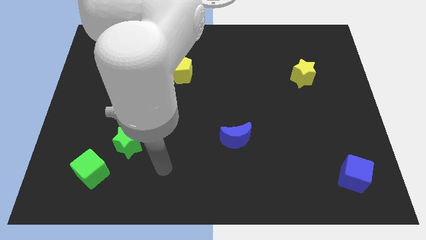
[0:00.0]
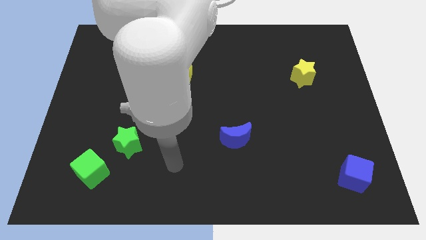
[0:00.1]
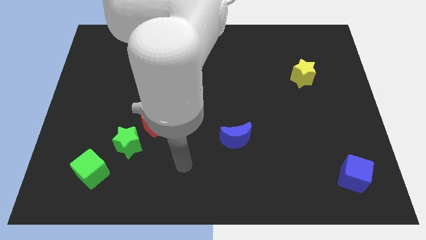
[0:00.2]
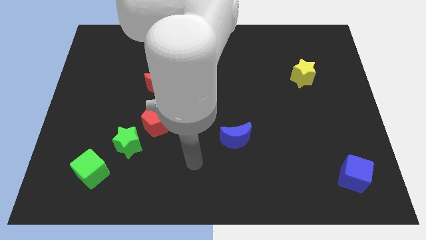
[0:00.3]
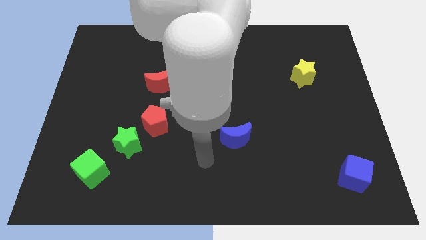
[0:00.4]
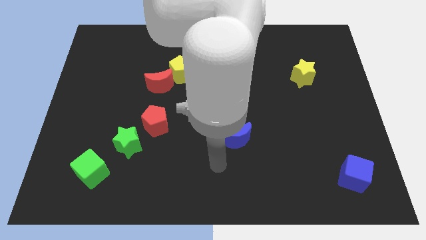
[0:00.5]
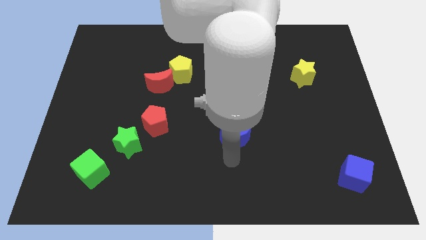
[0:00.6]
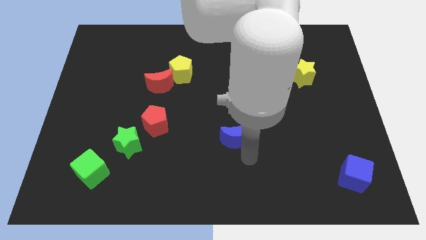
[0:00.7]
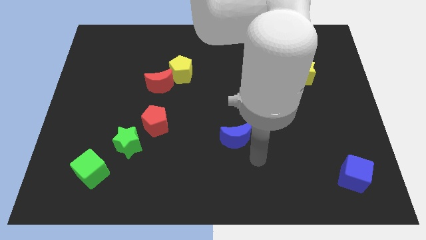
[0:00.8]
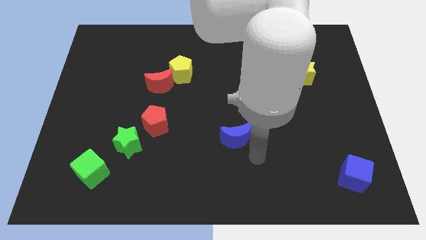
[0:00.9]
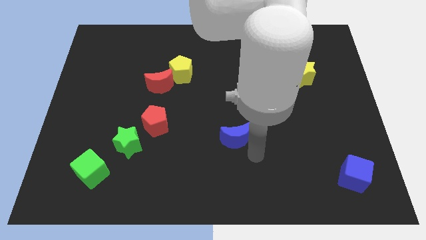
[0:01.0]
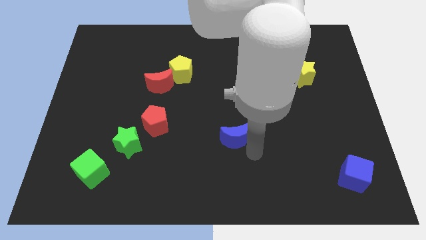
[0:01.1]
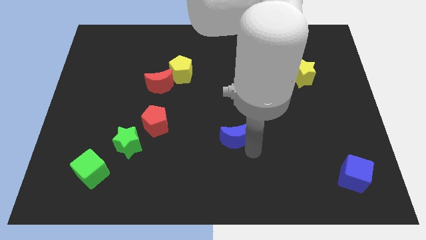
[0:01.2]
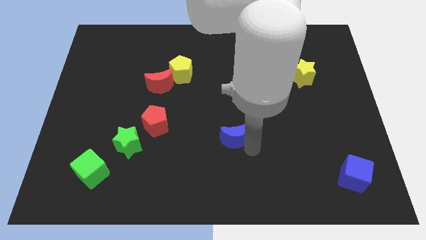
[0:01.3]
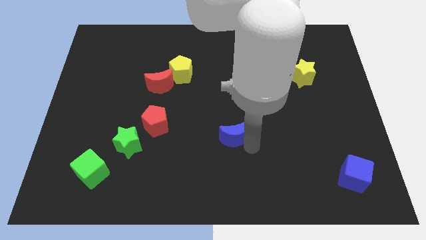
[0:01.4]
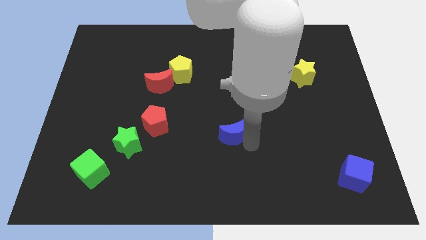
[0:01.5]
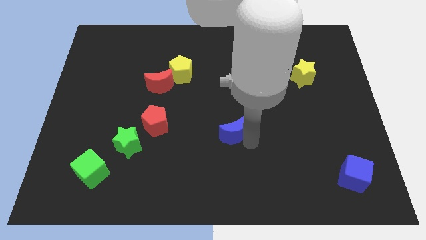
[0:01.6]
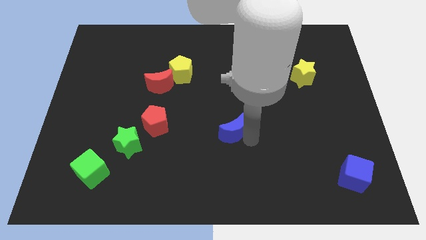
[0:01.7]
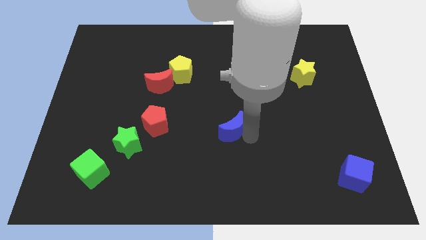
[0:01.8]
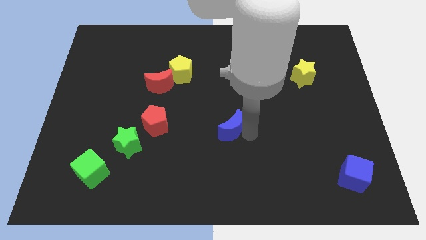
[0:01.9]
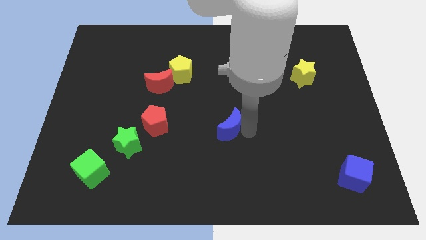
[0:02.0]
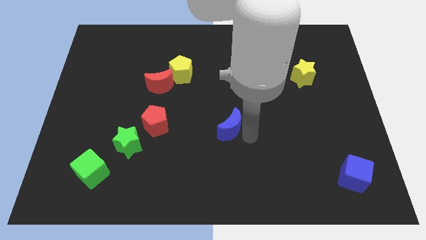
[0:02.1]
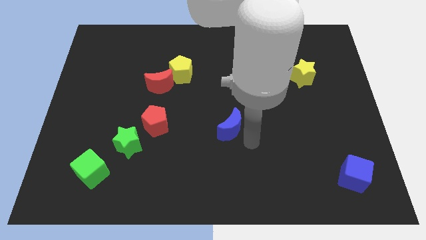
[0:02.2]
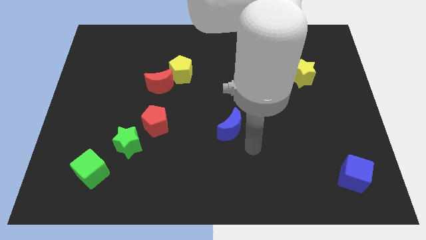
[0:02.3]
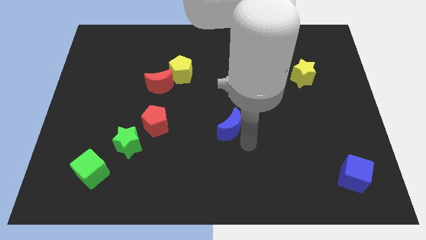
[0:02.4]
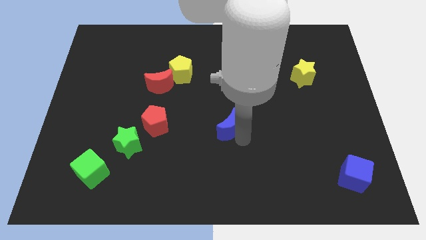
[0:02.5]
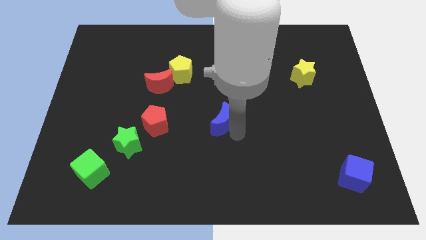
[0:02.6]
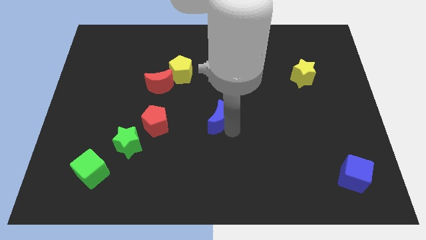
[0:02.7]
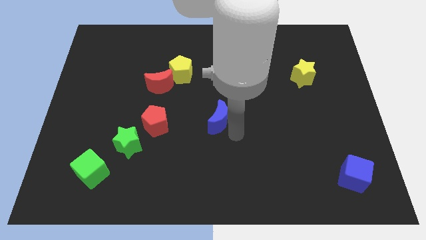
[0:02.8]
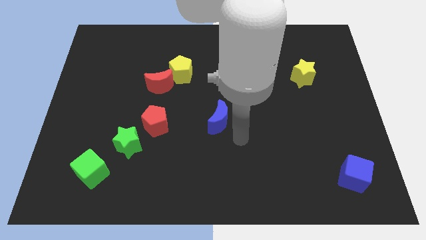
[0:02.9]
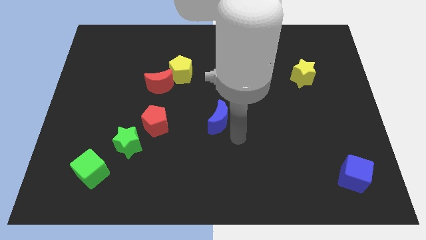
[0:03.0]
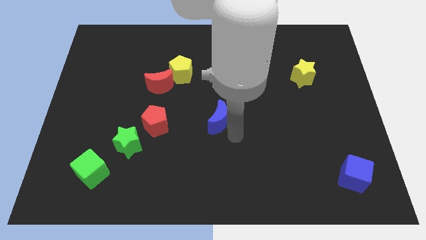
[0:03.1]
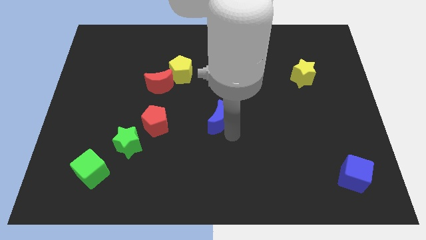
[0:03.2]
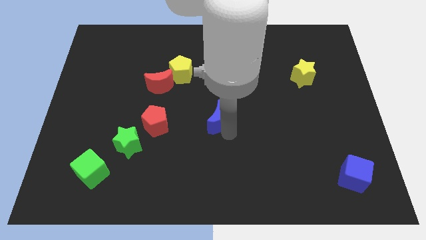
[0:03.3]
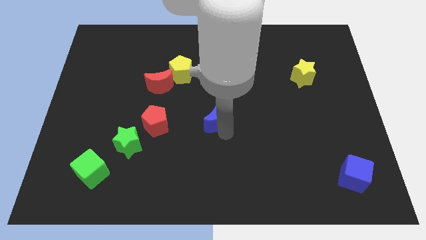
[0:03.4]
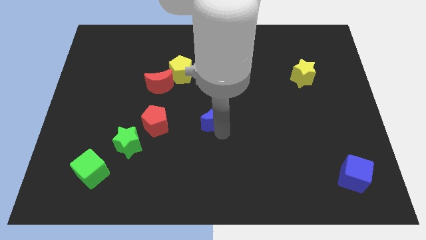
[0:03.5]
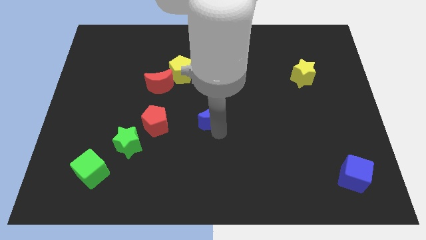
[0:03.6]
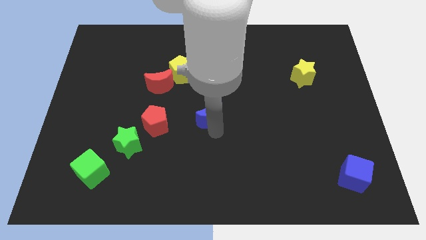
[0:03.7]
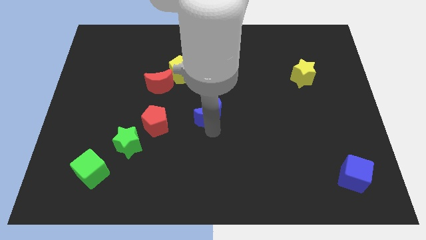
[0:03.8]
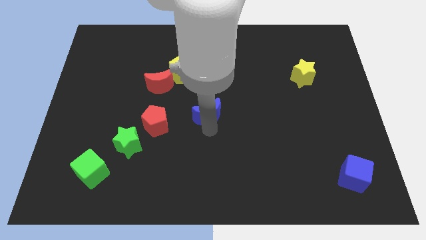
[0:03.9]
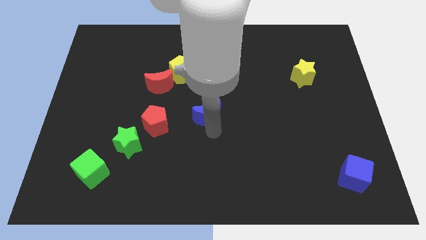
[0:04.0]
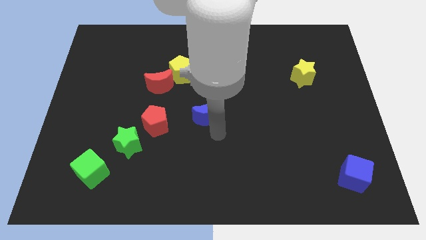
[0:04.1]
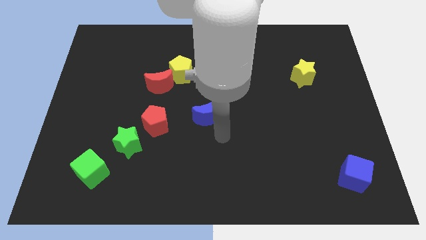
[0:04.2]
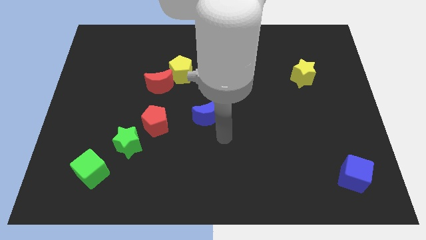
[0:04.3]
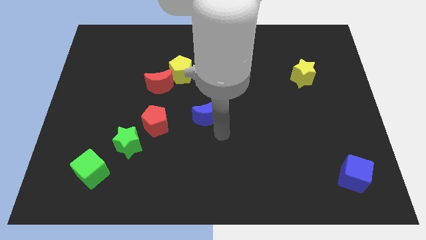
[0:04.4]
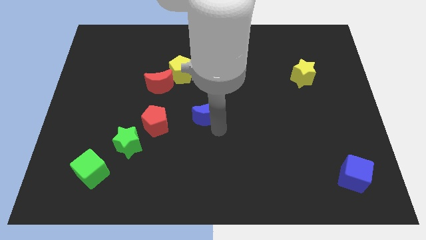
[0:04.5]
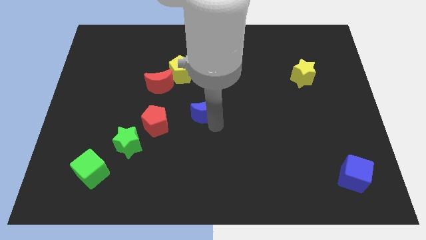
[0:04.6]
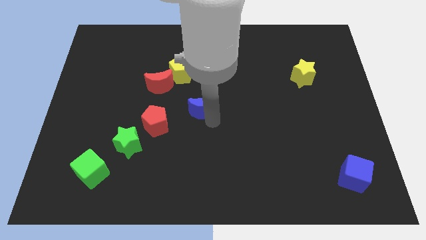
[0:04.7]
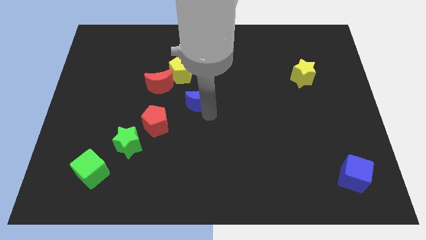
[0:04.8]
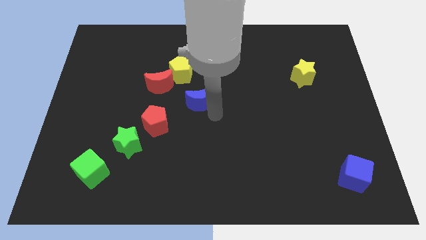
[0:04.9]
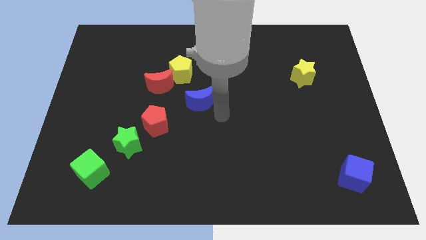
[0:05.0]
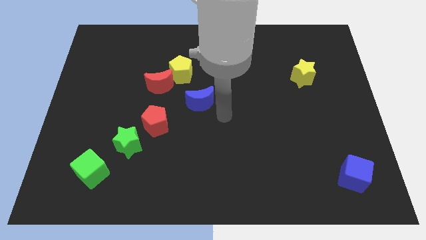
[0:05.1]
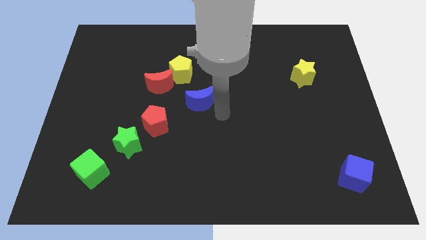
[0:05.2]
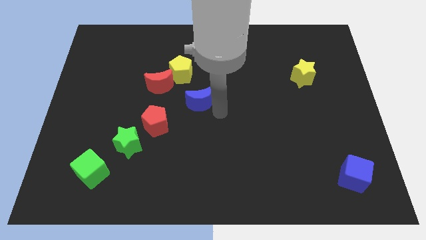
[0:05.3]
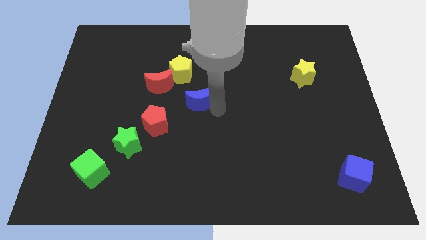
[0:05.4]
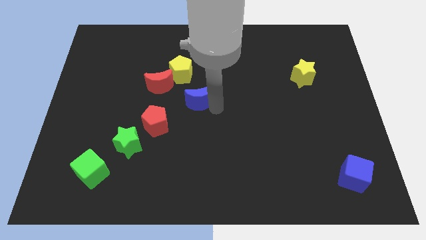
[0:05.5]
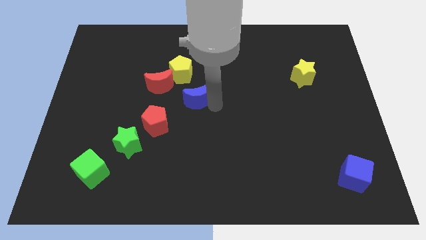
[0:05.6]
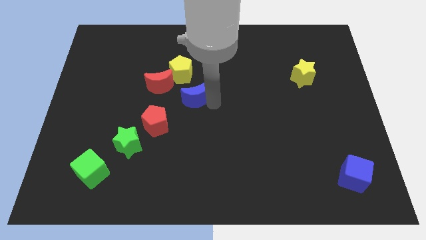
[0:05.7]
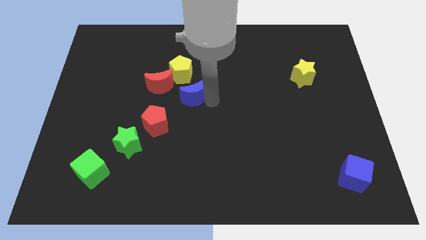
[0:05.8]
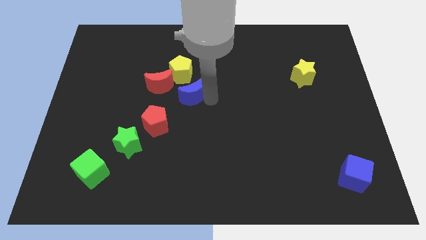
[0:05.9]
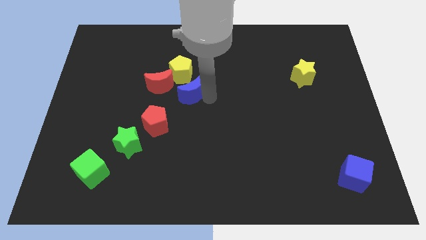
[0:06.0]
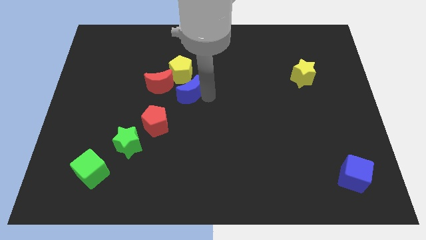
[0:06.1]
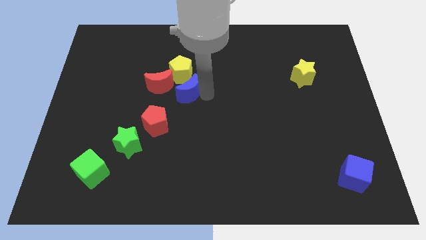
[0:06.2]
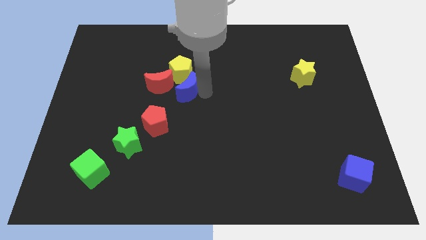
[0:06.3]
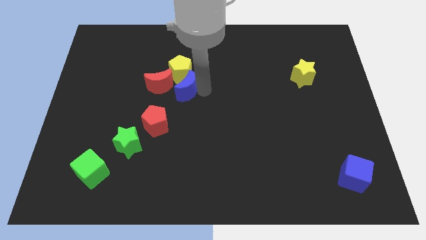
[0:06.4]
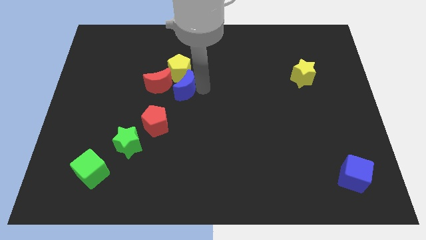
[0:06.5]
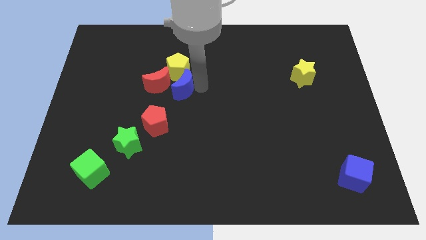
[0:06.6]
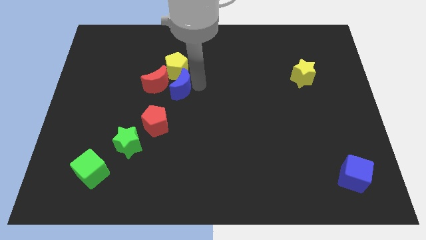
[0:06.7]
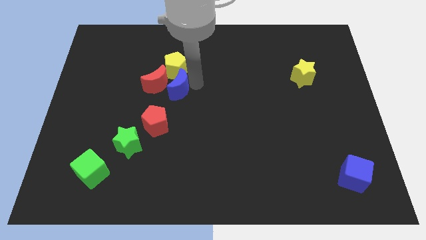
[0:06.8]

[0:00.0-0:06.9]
move the blue moon to the red moon

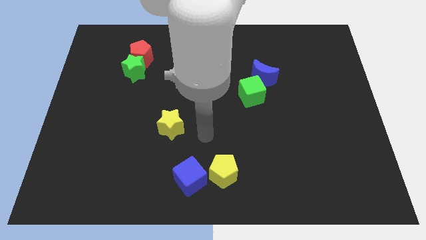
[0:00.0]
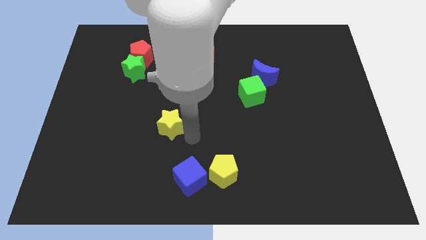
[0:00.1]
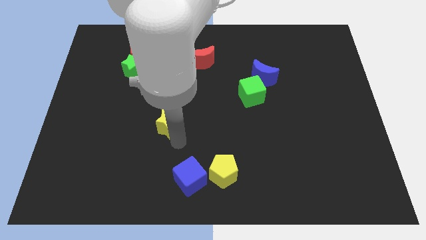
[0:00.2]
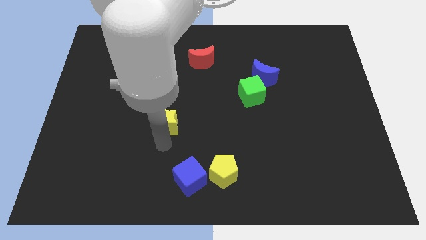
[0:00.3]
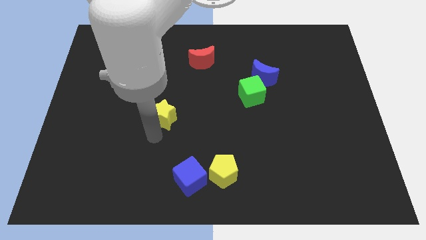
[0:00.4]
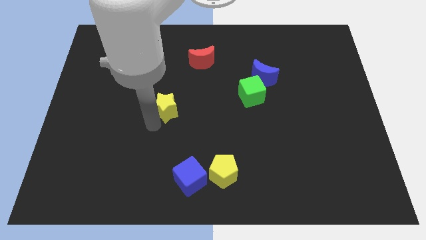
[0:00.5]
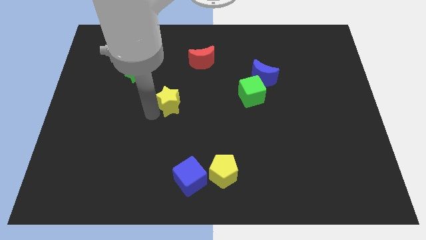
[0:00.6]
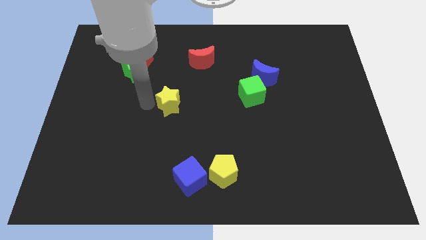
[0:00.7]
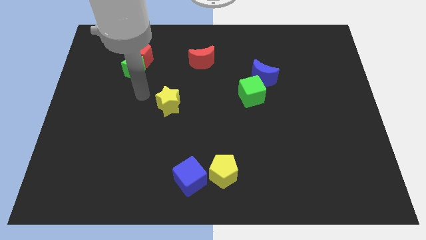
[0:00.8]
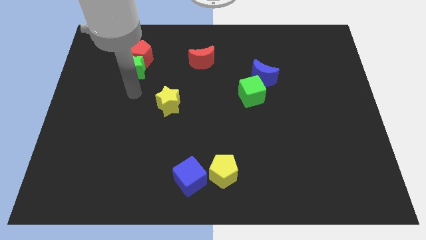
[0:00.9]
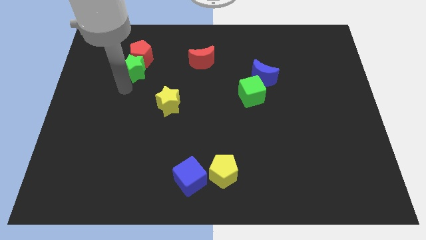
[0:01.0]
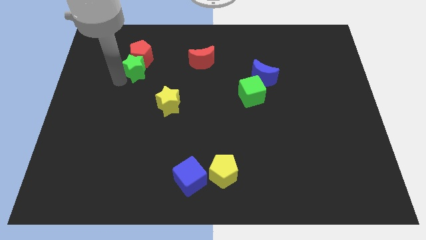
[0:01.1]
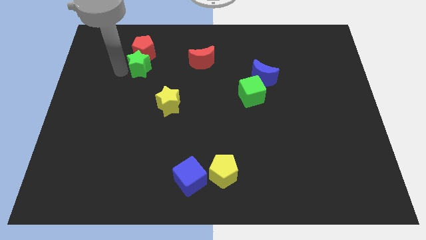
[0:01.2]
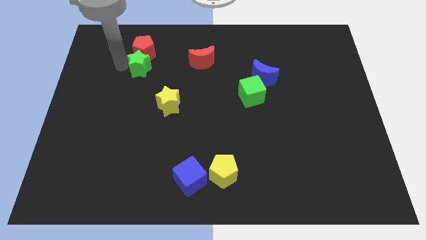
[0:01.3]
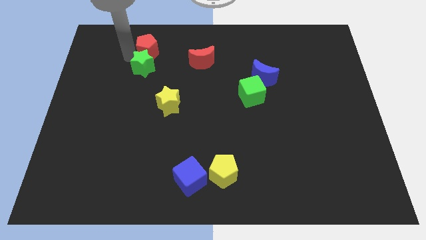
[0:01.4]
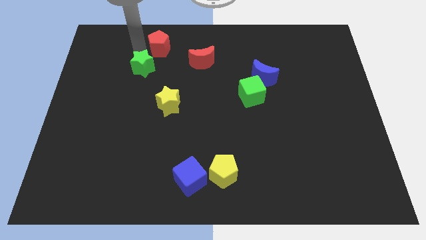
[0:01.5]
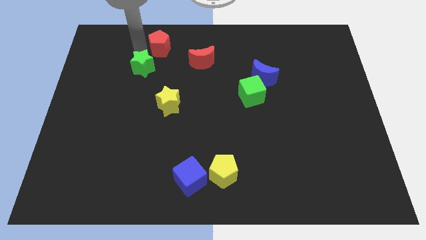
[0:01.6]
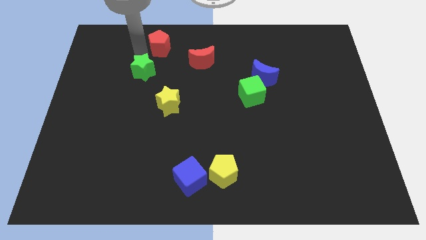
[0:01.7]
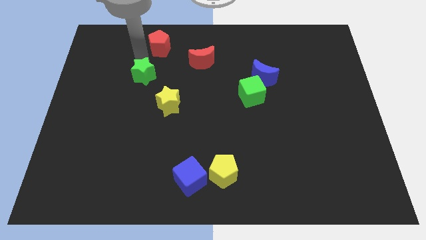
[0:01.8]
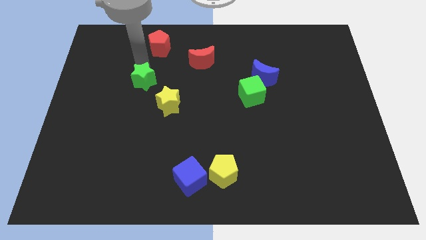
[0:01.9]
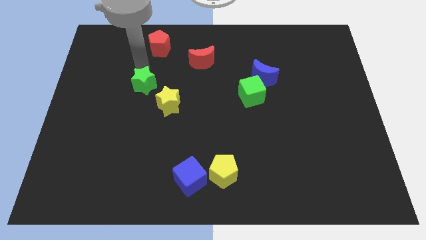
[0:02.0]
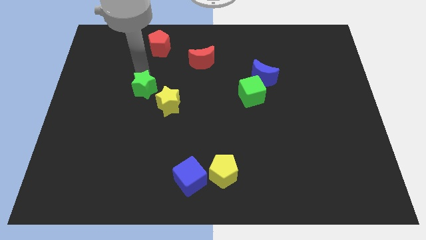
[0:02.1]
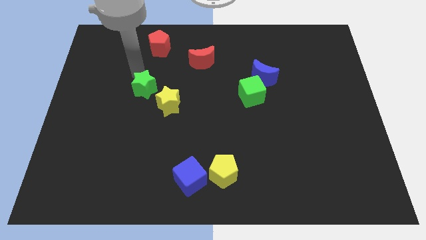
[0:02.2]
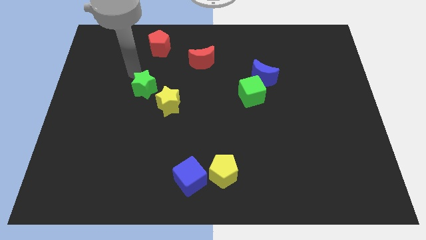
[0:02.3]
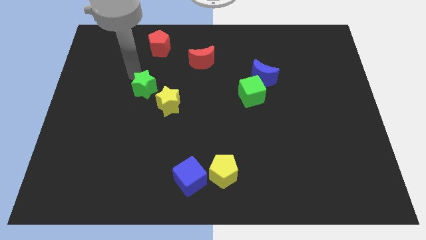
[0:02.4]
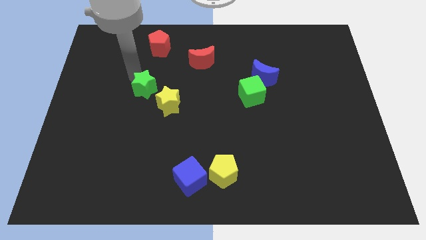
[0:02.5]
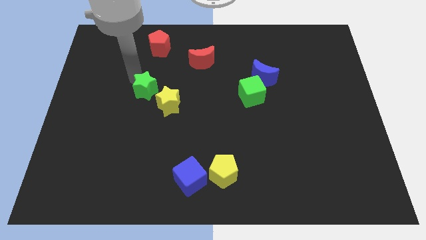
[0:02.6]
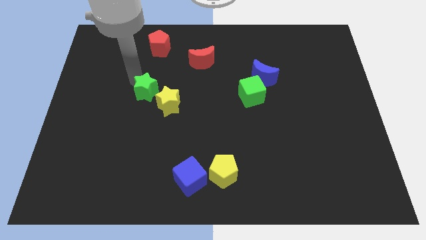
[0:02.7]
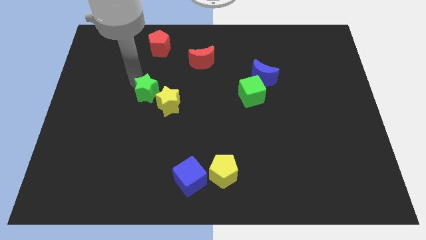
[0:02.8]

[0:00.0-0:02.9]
push the green star towards the yellow star
